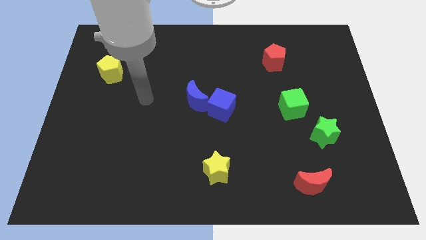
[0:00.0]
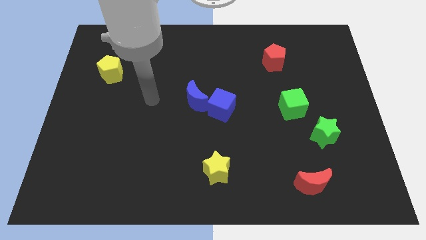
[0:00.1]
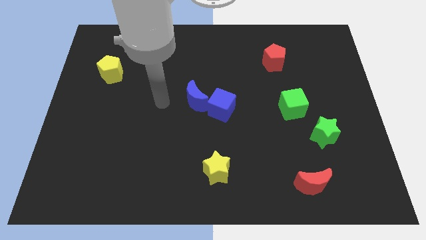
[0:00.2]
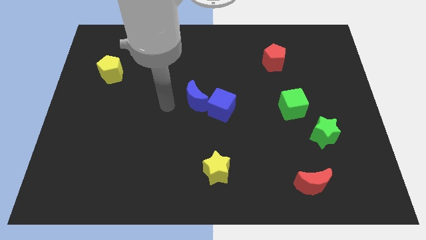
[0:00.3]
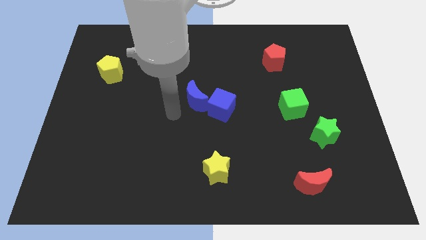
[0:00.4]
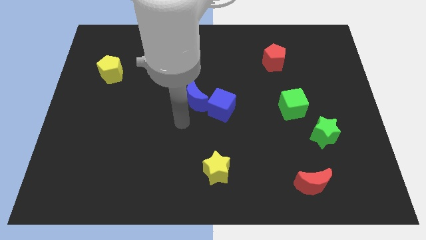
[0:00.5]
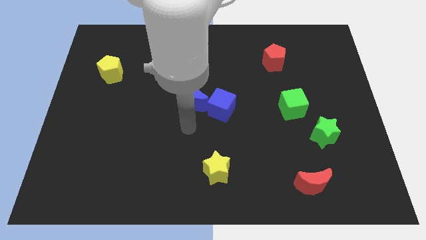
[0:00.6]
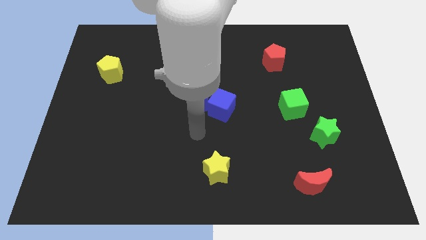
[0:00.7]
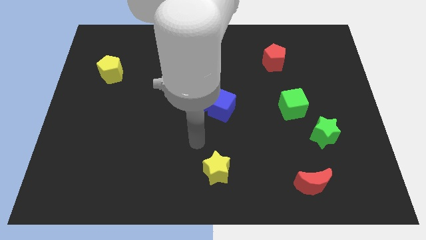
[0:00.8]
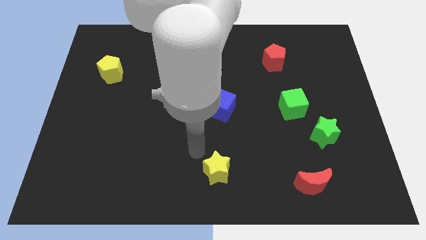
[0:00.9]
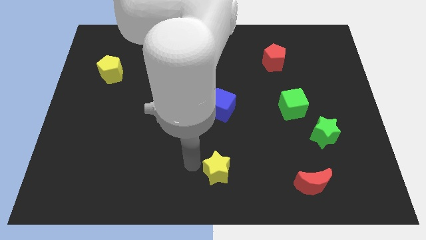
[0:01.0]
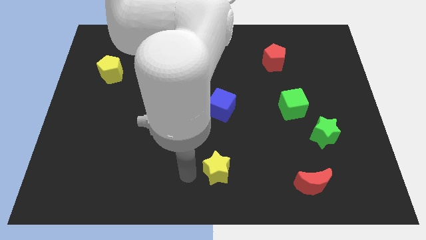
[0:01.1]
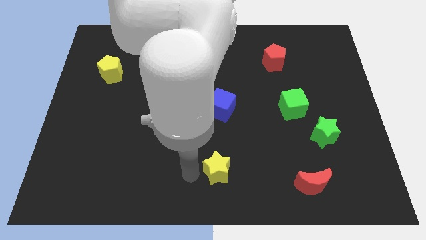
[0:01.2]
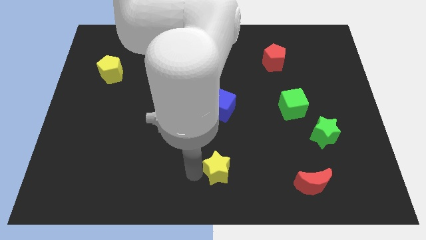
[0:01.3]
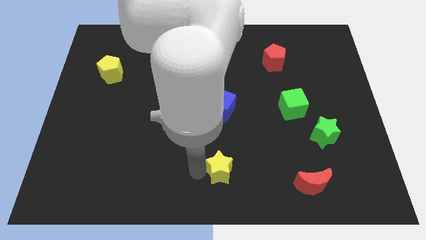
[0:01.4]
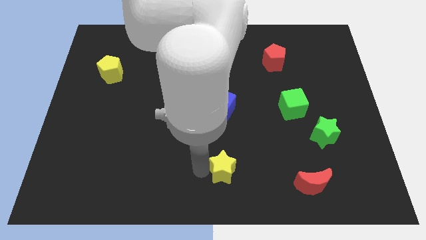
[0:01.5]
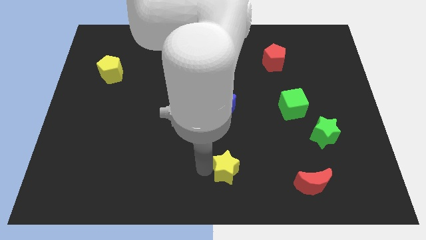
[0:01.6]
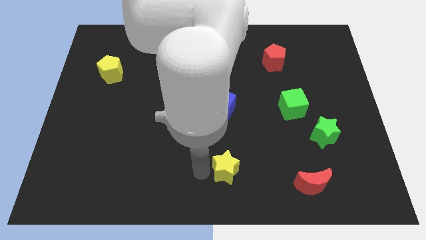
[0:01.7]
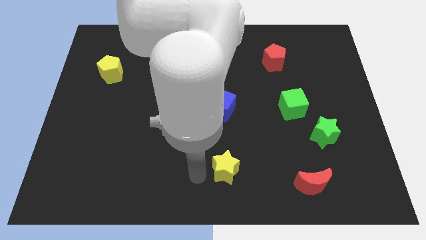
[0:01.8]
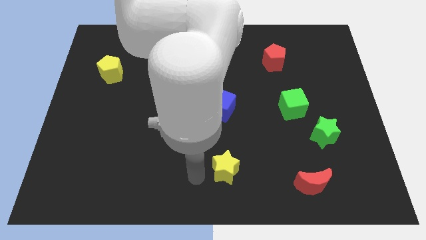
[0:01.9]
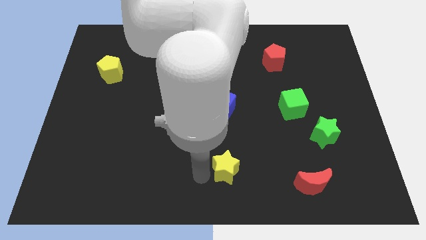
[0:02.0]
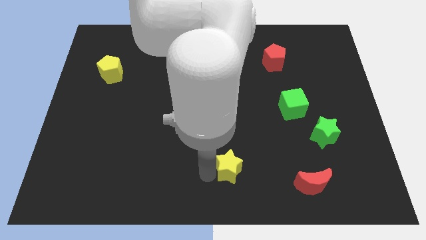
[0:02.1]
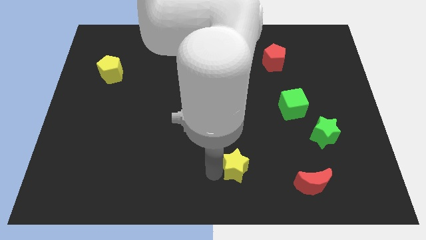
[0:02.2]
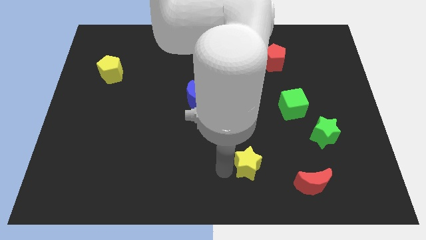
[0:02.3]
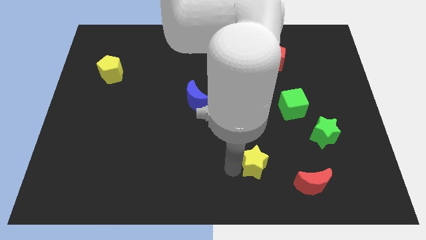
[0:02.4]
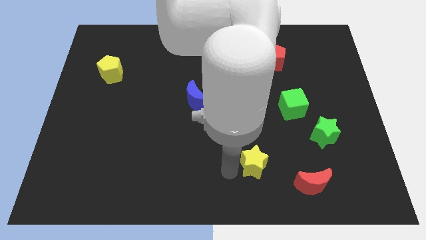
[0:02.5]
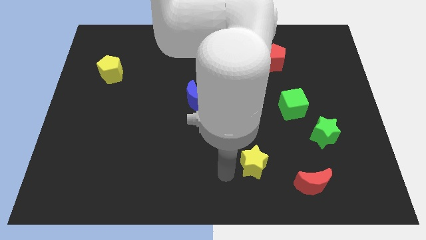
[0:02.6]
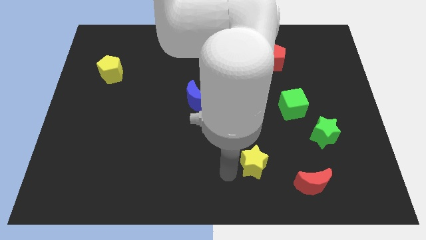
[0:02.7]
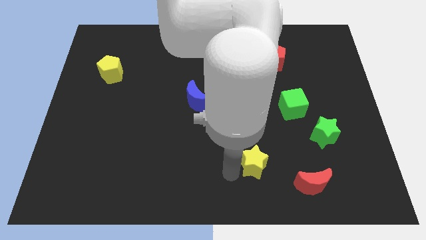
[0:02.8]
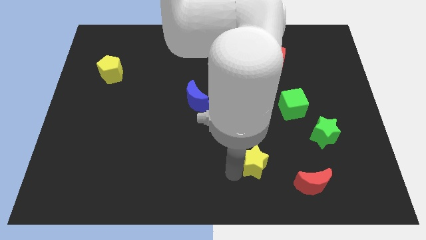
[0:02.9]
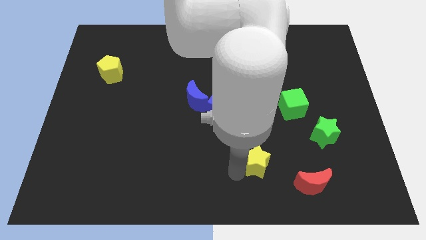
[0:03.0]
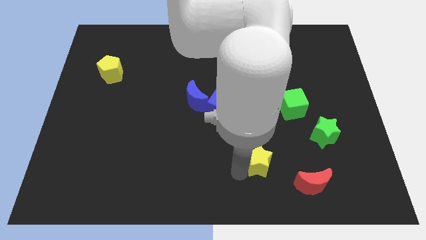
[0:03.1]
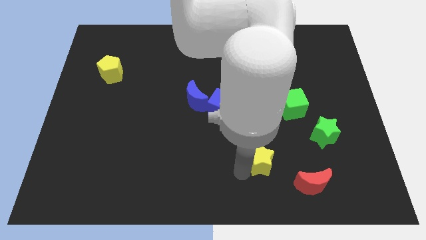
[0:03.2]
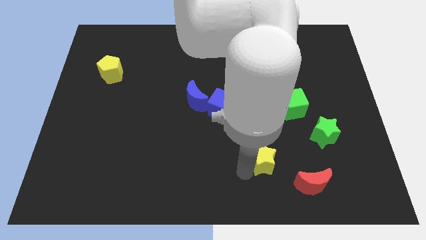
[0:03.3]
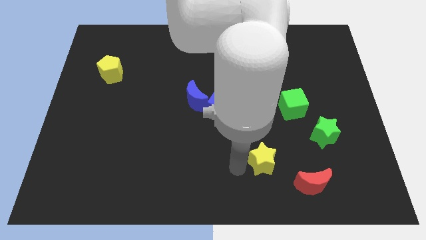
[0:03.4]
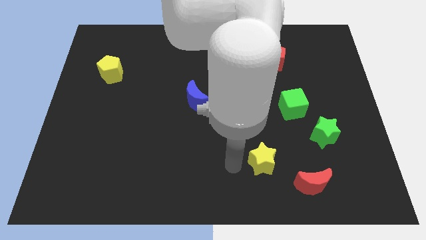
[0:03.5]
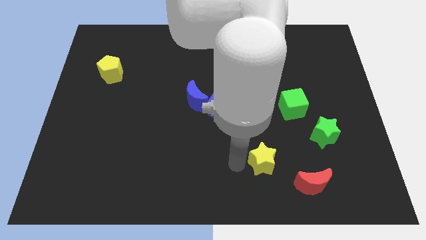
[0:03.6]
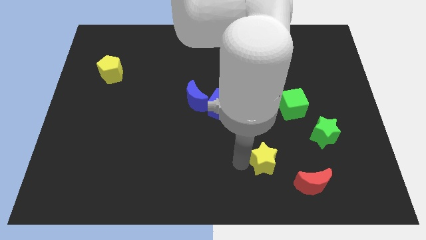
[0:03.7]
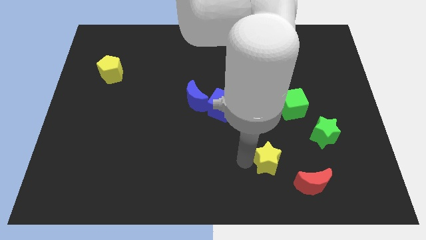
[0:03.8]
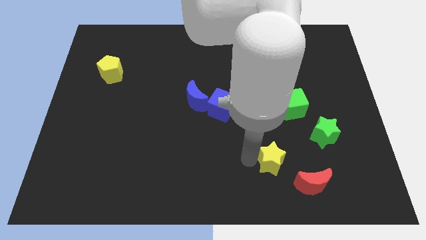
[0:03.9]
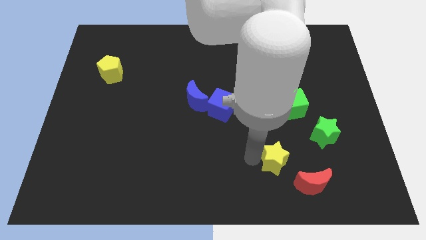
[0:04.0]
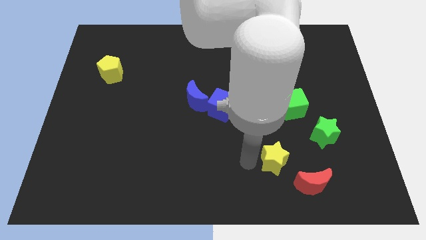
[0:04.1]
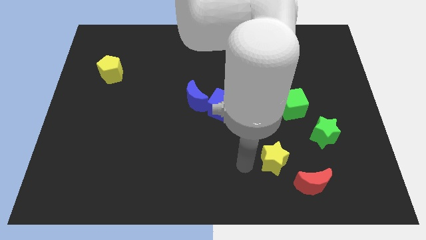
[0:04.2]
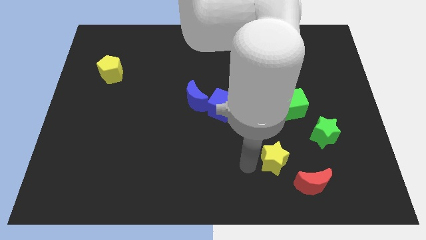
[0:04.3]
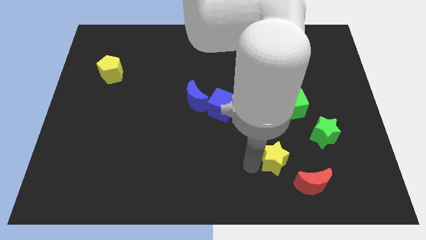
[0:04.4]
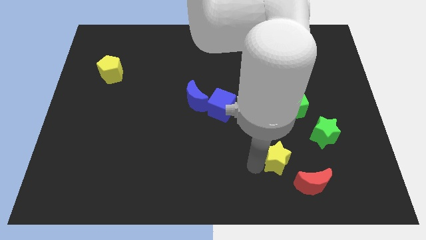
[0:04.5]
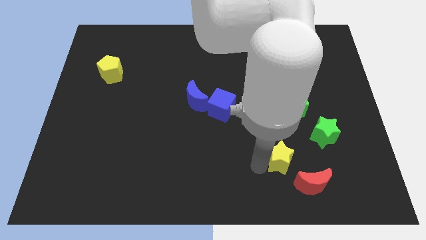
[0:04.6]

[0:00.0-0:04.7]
push the yellow star to the bottom left side of the green star

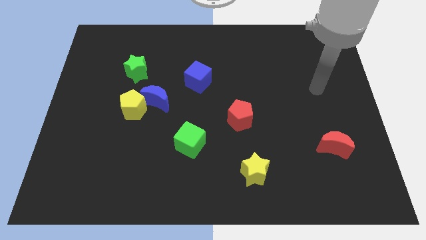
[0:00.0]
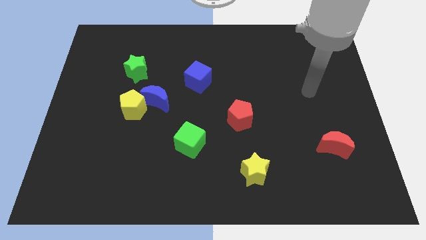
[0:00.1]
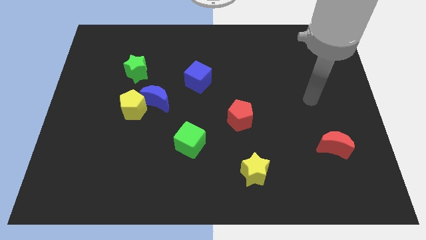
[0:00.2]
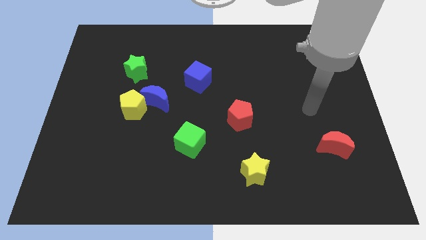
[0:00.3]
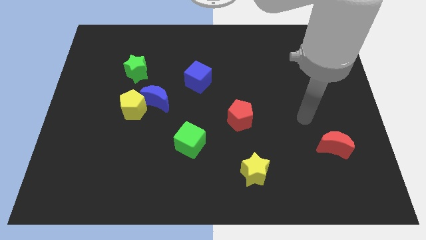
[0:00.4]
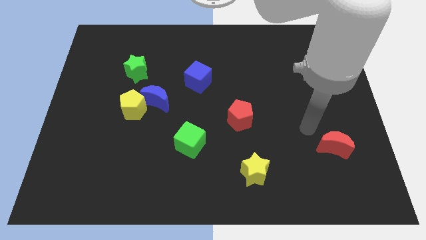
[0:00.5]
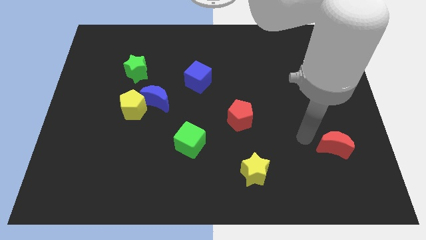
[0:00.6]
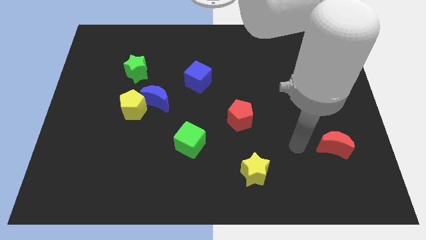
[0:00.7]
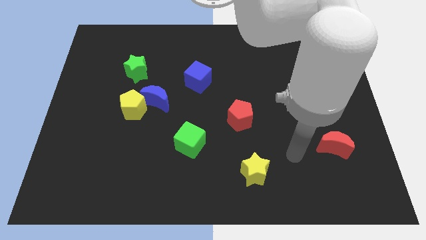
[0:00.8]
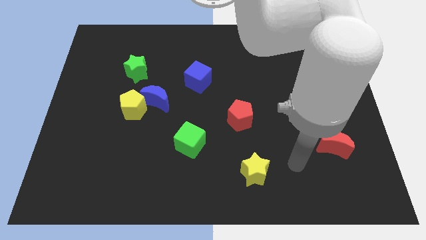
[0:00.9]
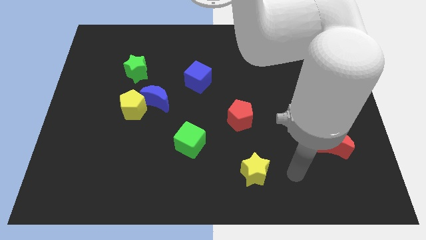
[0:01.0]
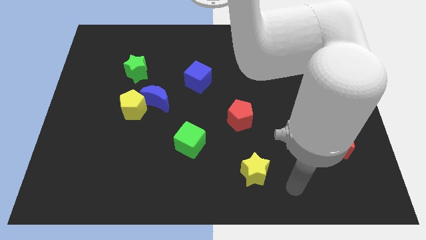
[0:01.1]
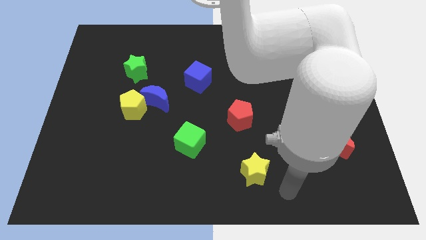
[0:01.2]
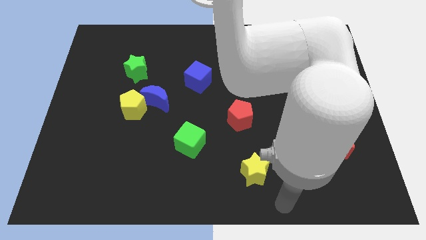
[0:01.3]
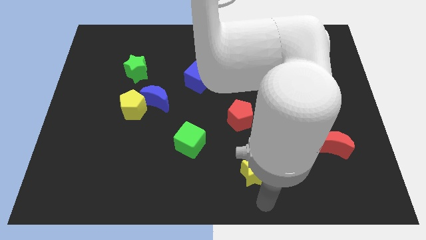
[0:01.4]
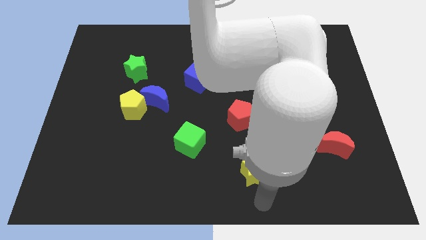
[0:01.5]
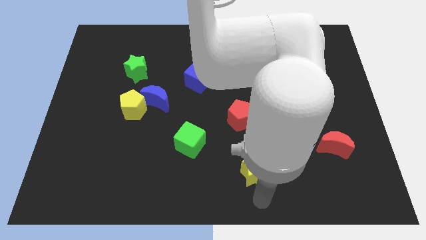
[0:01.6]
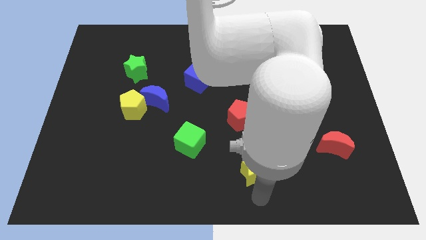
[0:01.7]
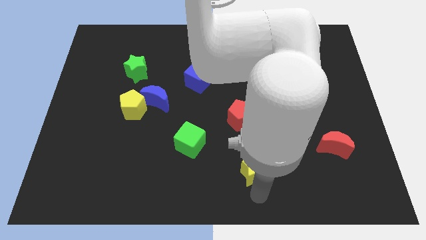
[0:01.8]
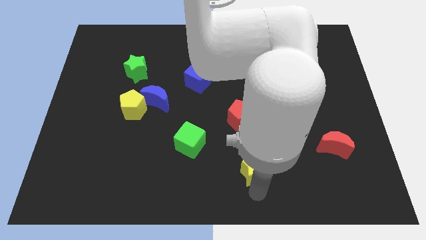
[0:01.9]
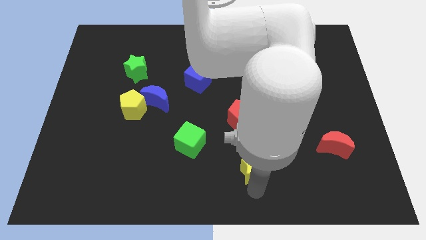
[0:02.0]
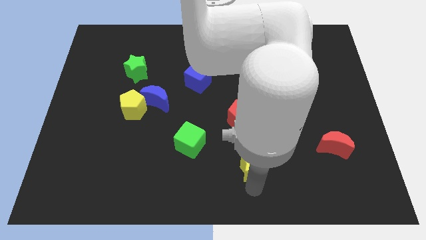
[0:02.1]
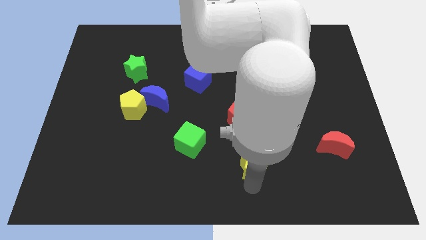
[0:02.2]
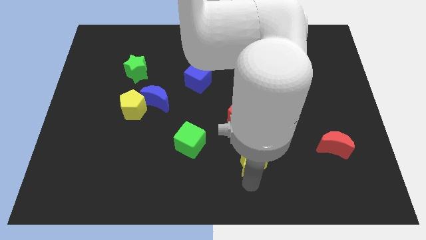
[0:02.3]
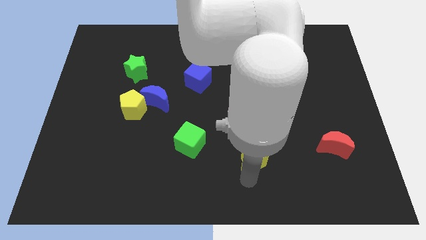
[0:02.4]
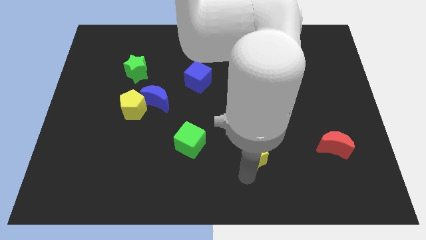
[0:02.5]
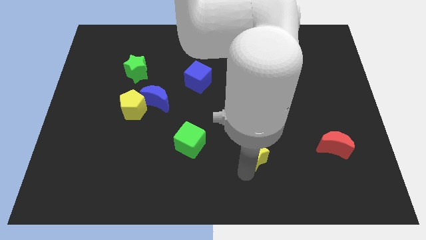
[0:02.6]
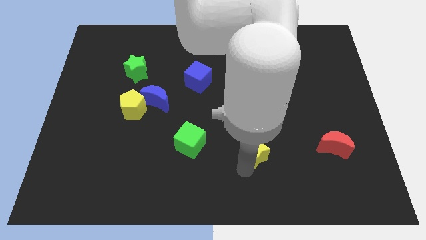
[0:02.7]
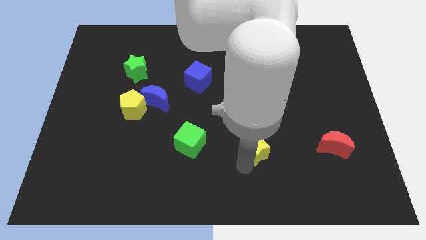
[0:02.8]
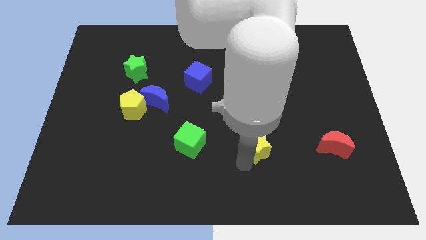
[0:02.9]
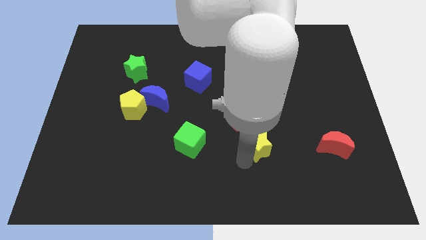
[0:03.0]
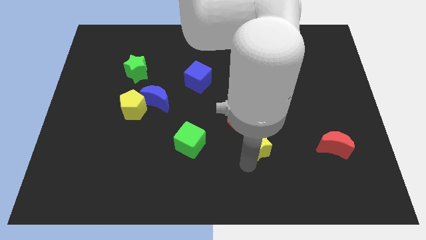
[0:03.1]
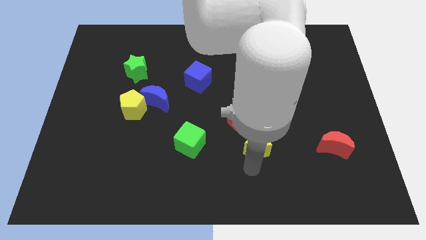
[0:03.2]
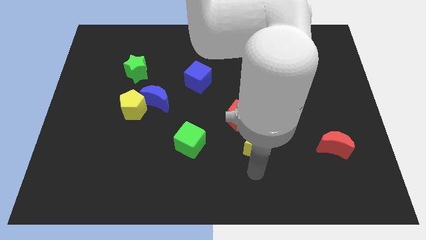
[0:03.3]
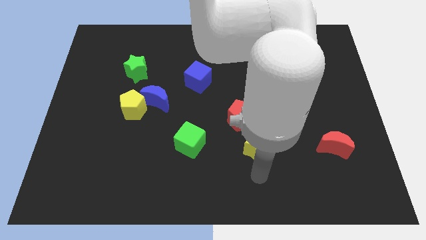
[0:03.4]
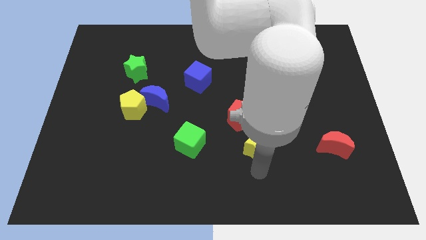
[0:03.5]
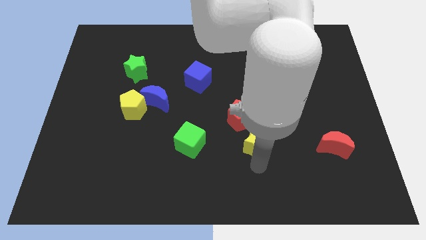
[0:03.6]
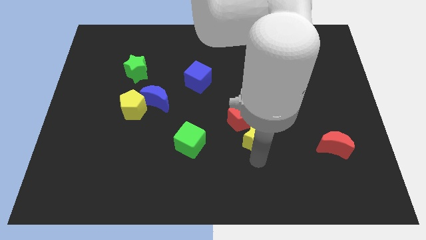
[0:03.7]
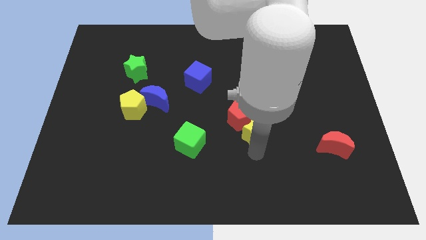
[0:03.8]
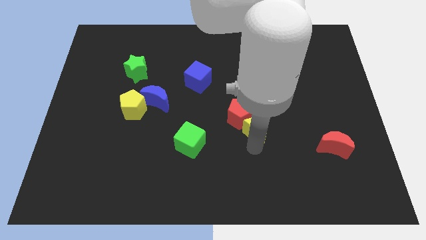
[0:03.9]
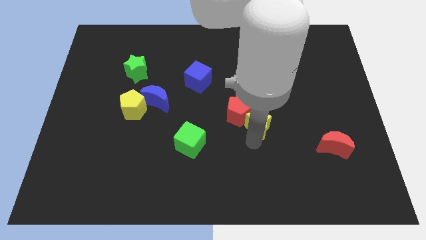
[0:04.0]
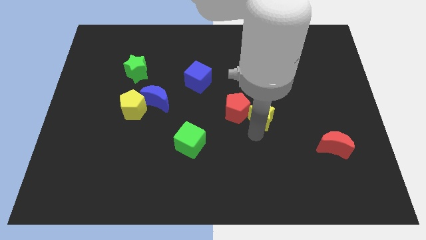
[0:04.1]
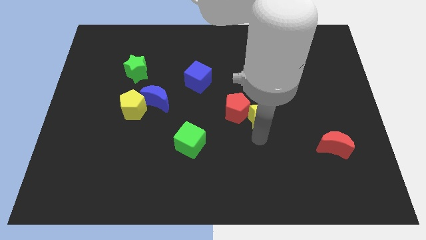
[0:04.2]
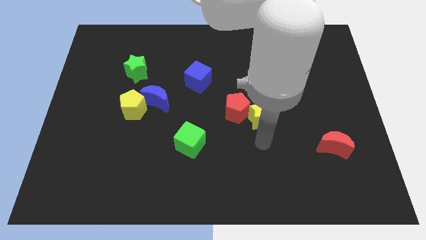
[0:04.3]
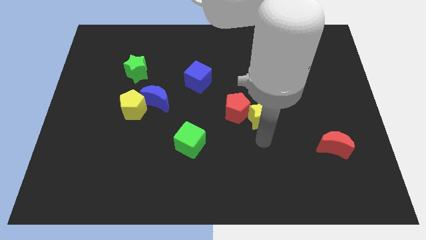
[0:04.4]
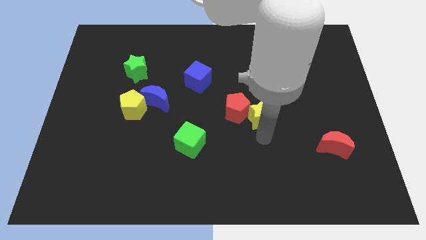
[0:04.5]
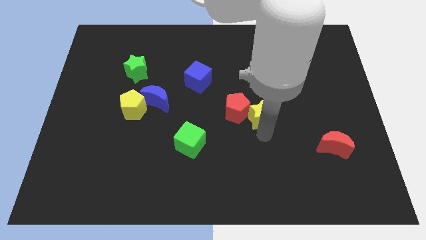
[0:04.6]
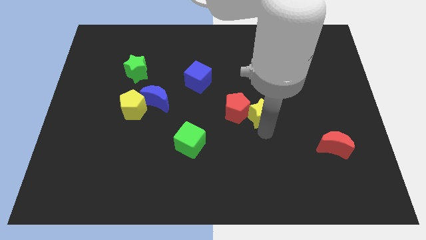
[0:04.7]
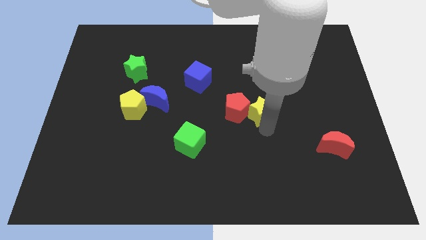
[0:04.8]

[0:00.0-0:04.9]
push the yellow star to the top right of the red pentagon
